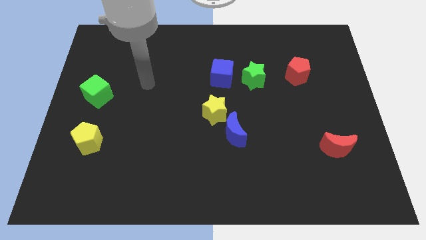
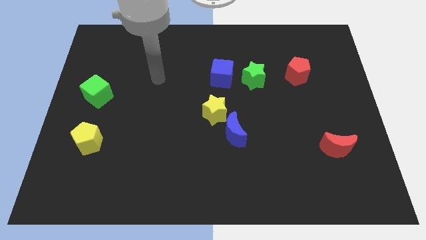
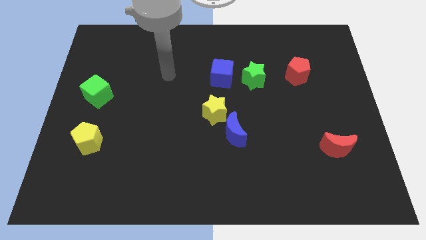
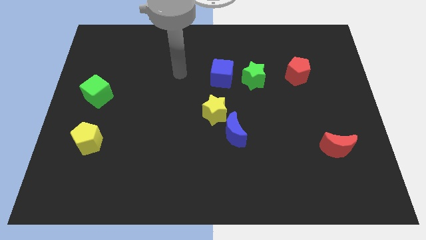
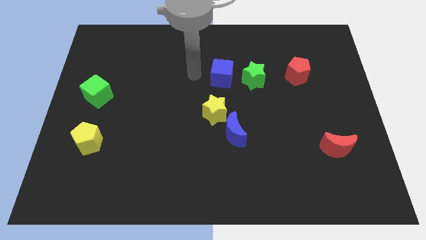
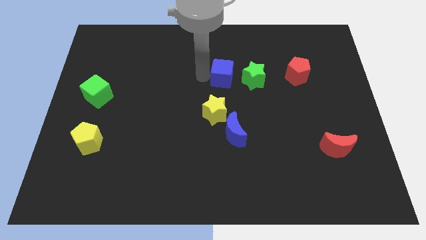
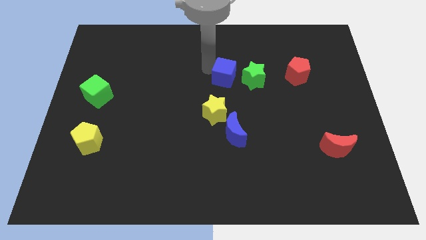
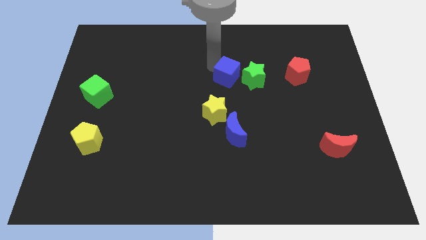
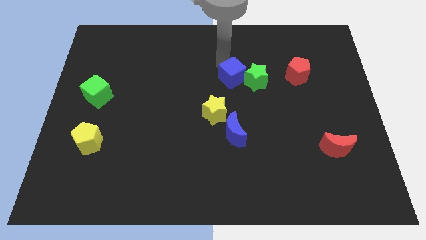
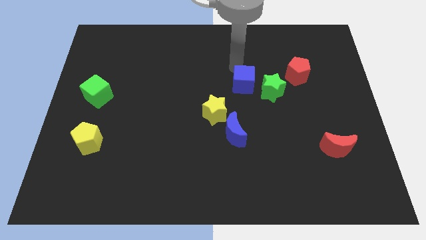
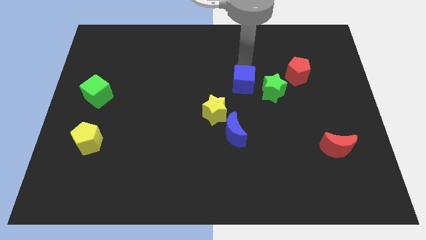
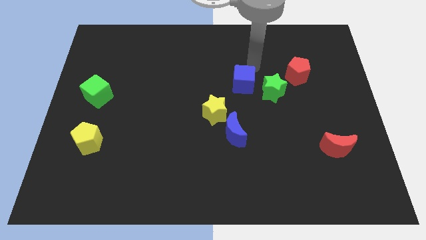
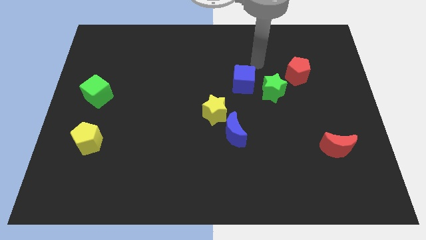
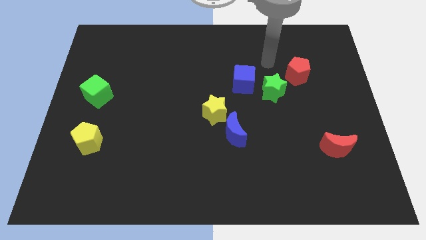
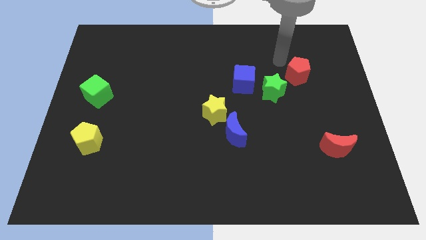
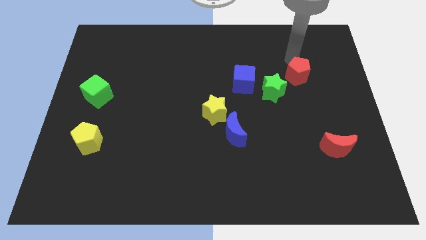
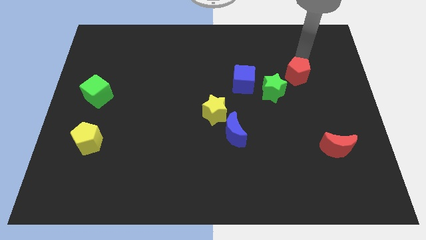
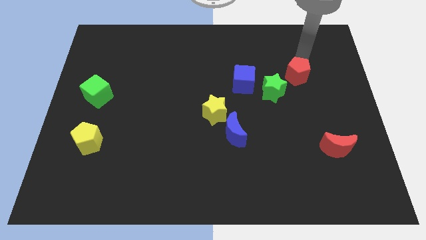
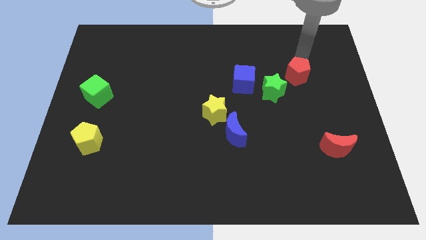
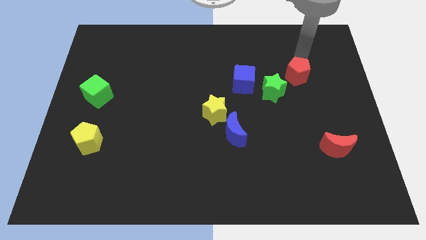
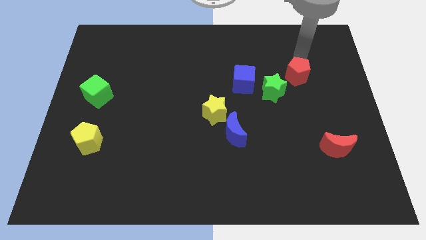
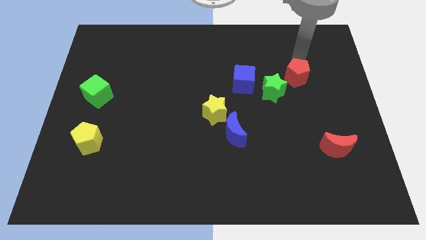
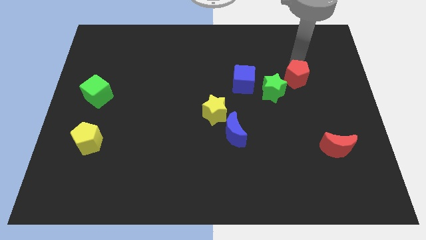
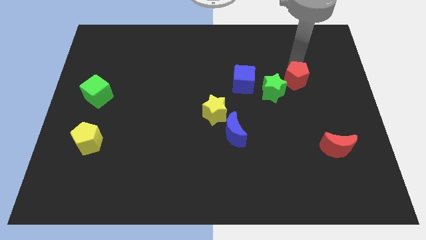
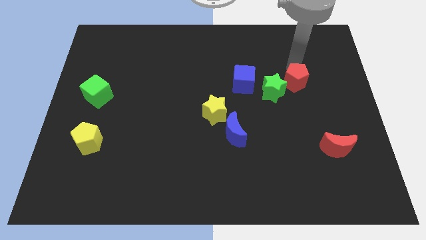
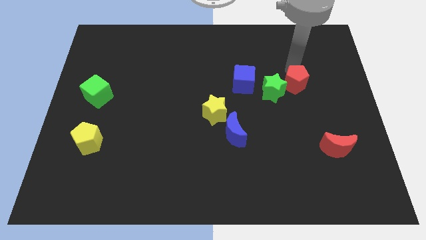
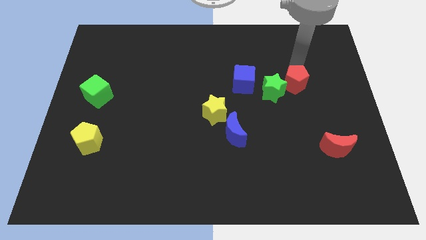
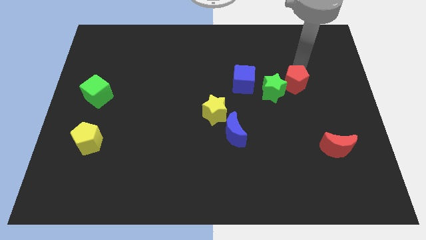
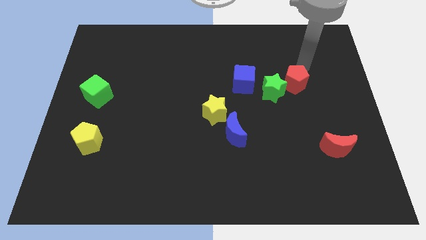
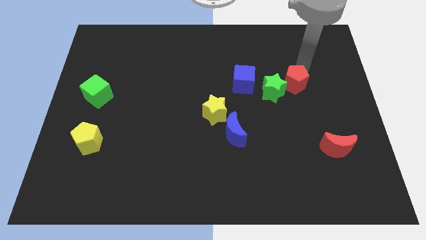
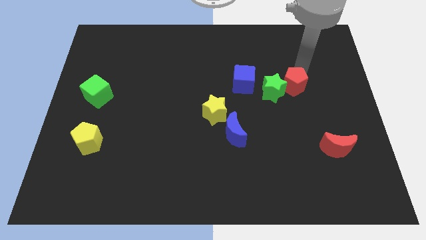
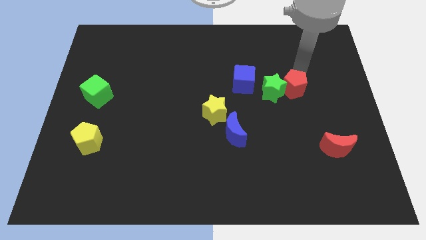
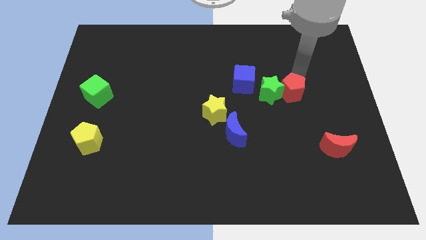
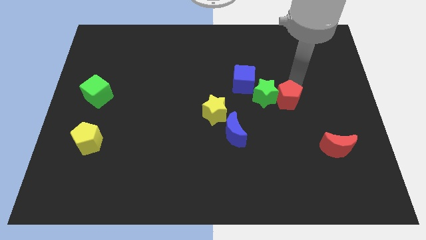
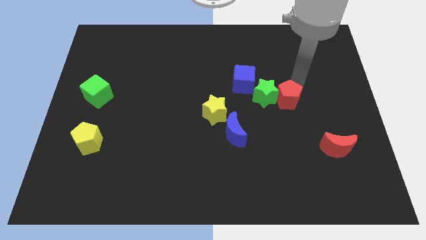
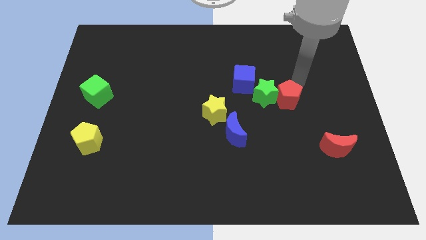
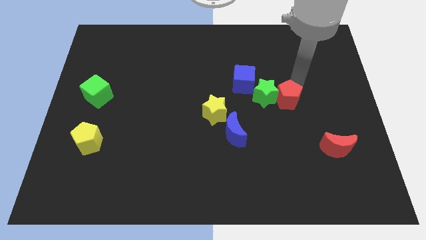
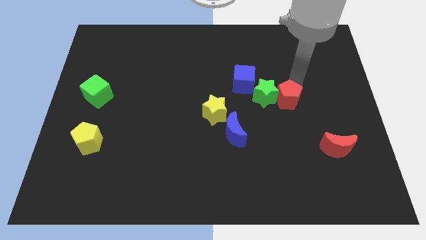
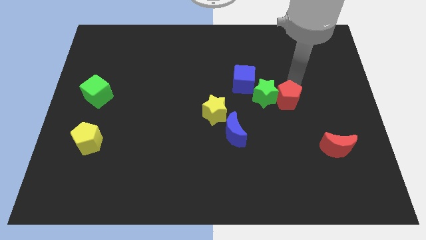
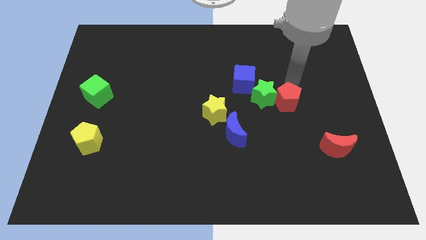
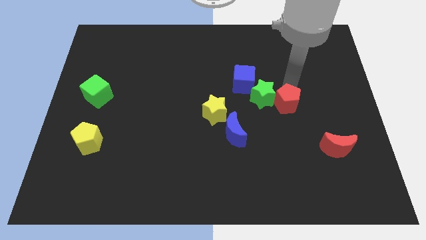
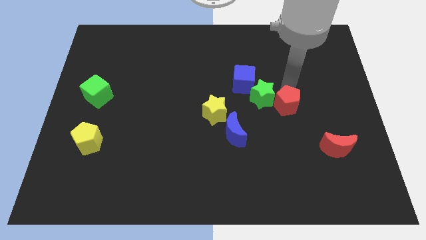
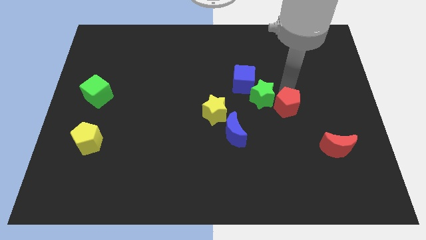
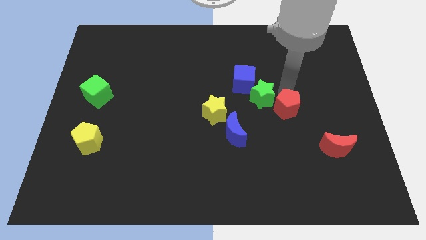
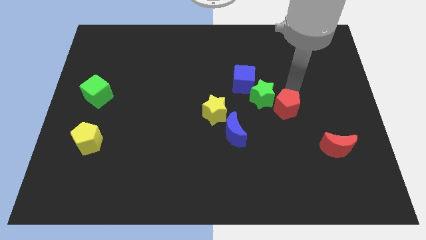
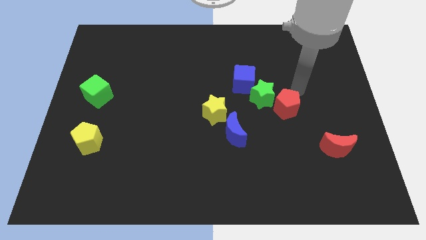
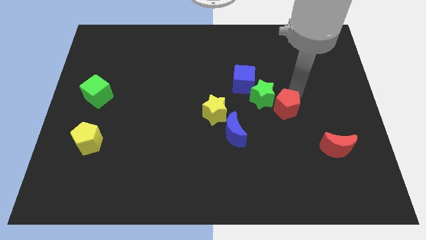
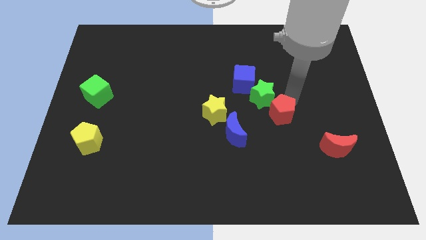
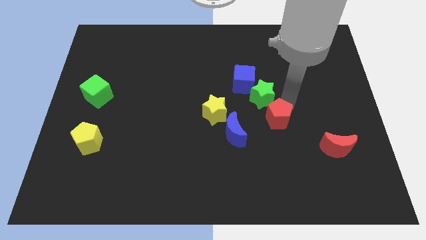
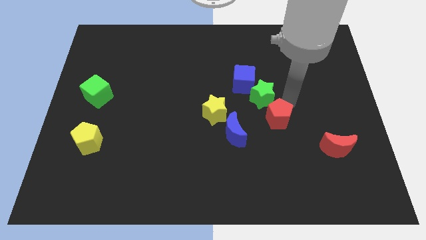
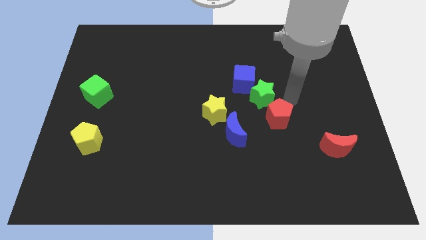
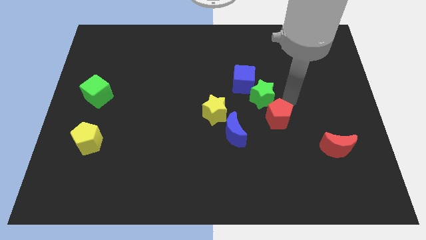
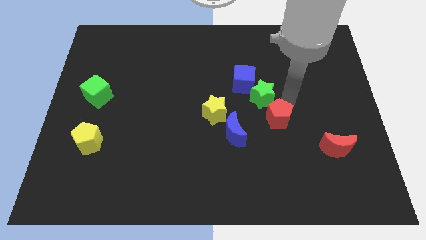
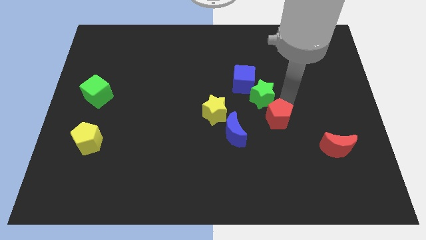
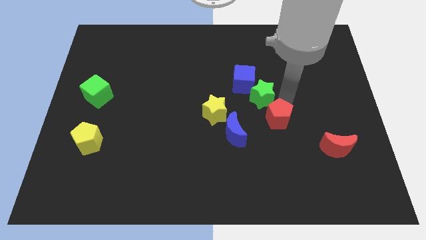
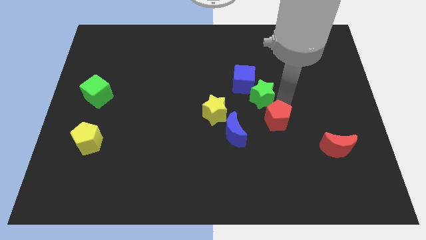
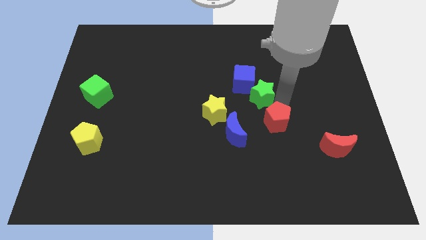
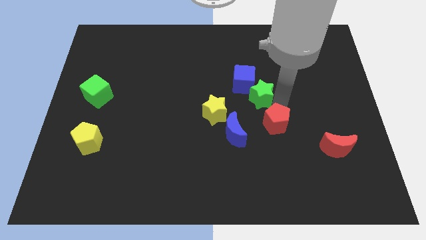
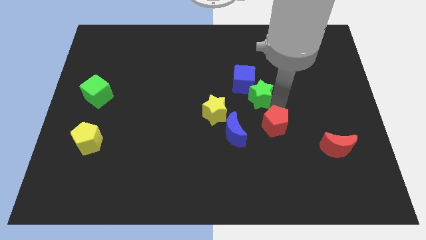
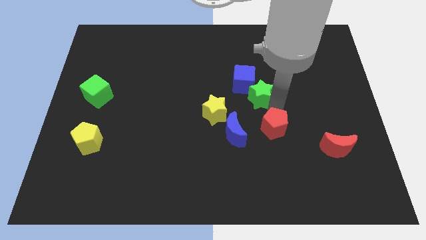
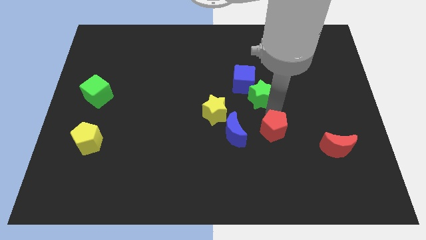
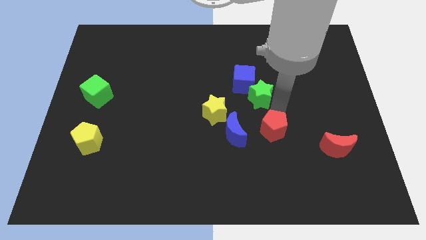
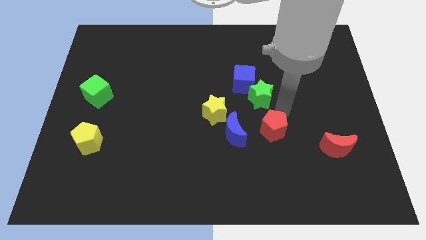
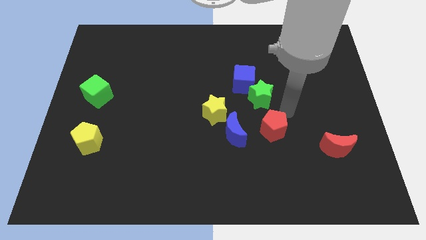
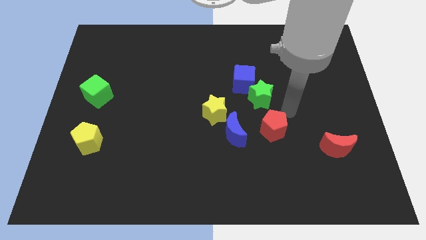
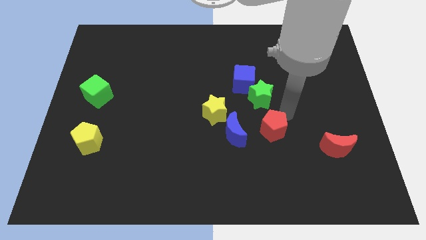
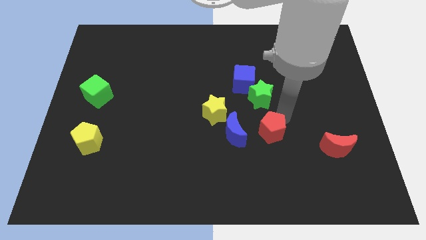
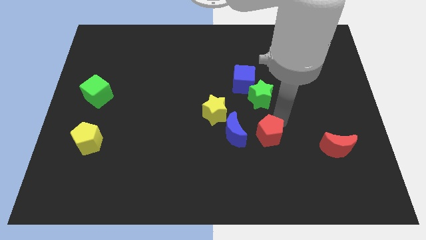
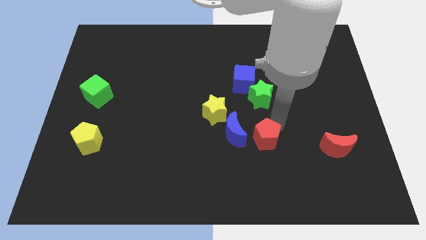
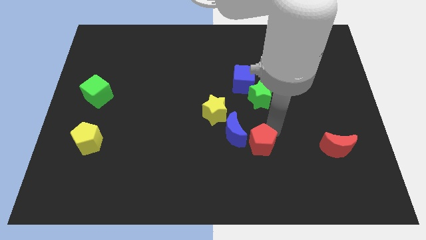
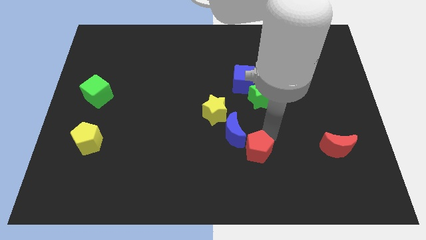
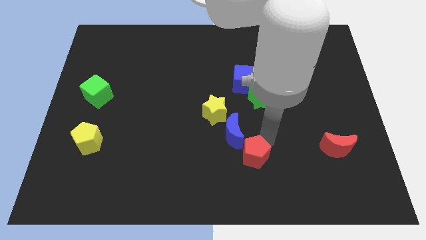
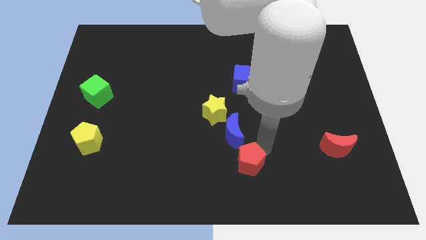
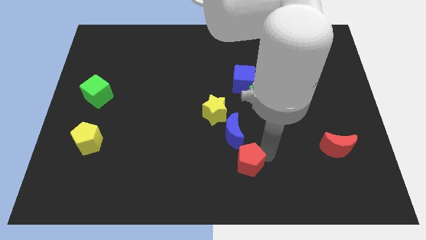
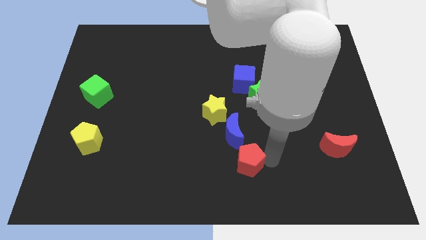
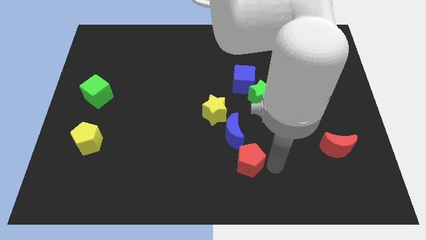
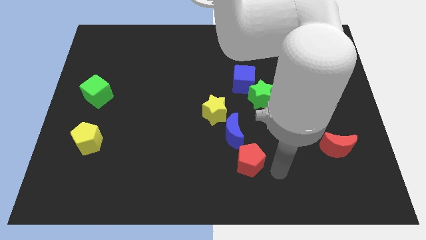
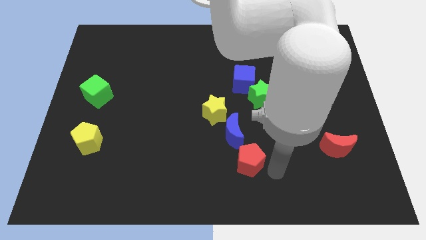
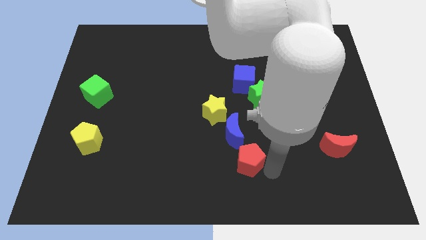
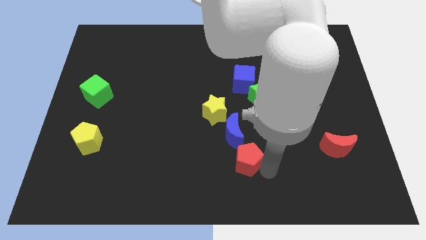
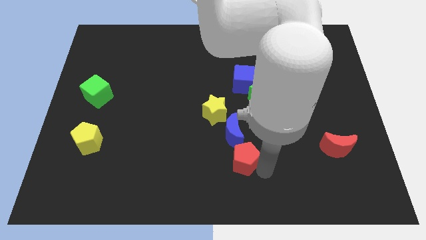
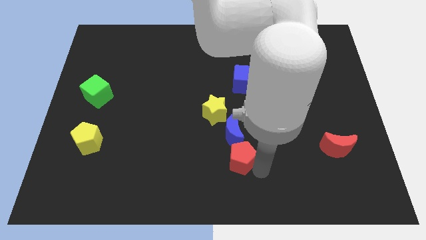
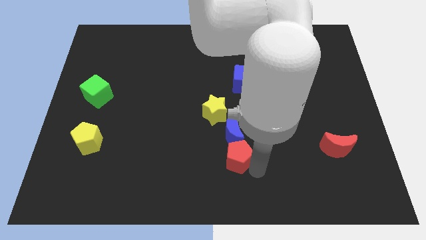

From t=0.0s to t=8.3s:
push the red pentagon below the yellow star
